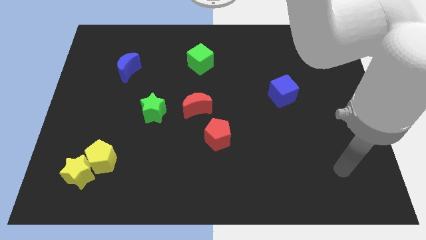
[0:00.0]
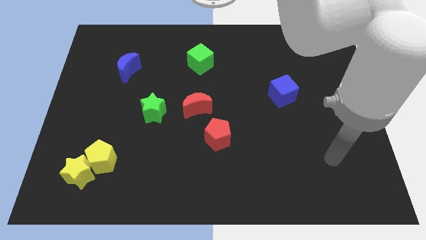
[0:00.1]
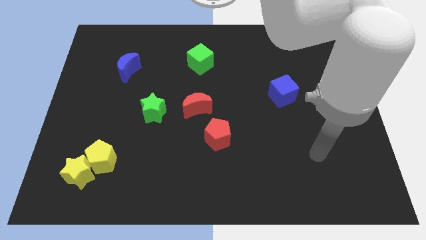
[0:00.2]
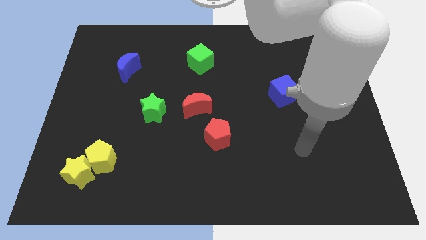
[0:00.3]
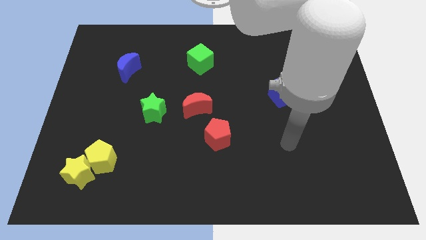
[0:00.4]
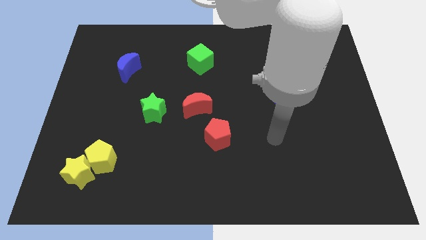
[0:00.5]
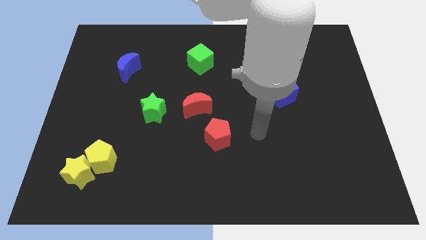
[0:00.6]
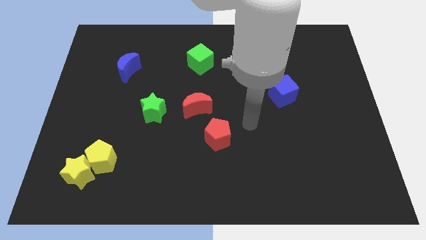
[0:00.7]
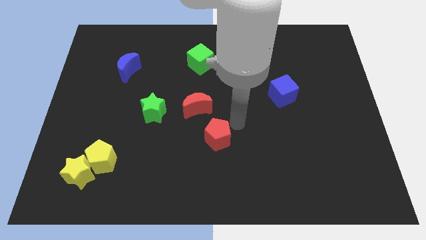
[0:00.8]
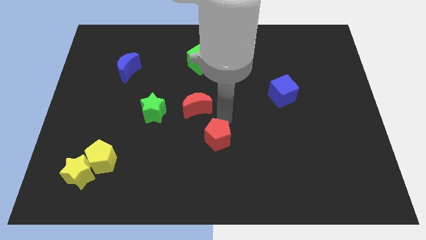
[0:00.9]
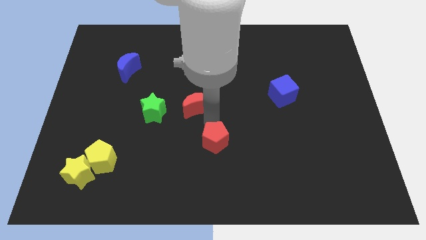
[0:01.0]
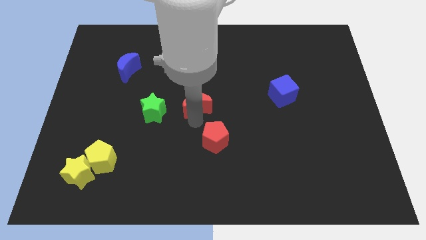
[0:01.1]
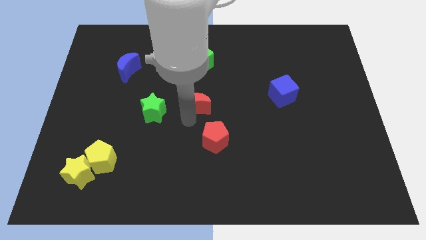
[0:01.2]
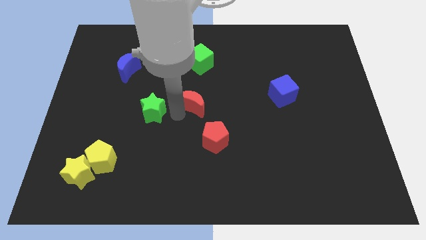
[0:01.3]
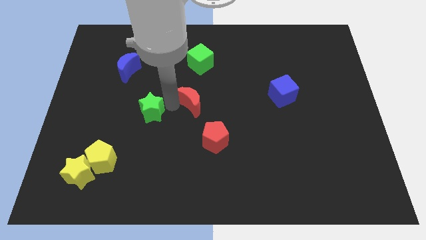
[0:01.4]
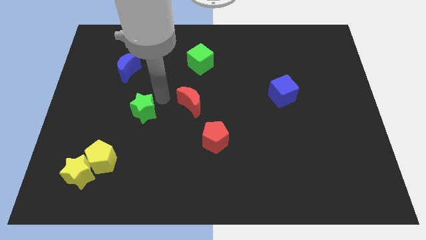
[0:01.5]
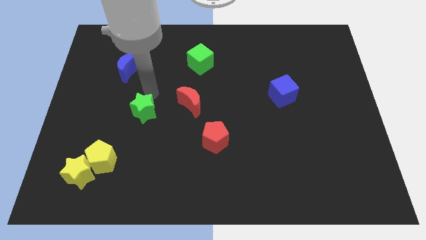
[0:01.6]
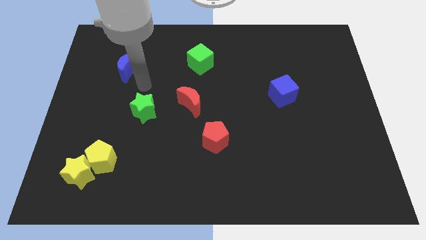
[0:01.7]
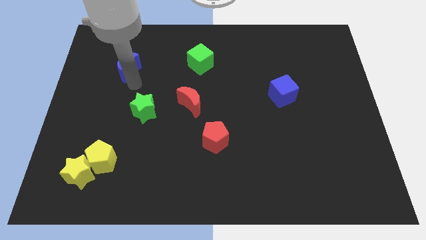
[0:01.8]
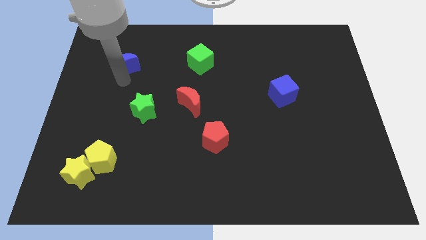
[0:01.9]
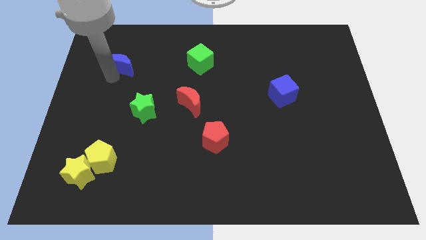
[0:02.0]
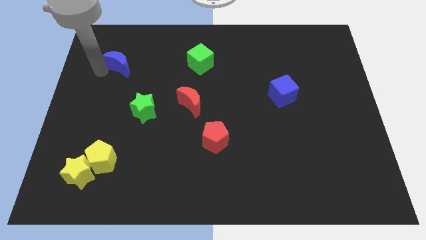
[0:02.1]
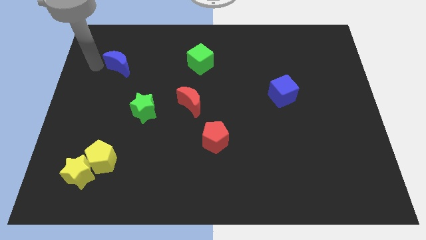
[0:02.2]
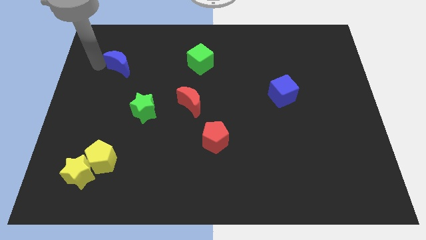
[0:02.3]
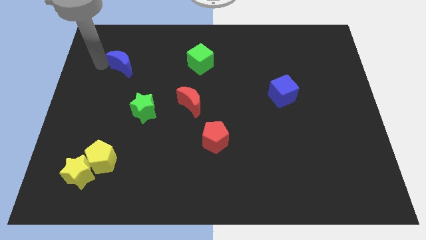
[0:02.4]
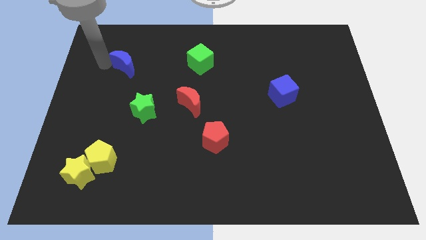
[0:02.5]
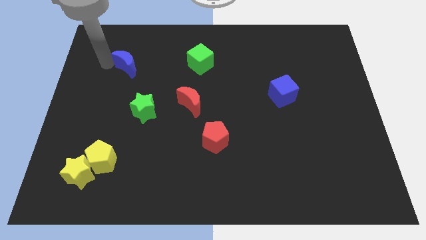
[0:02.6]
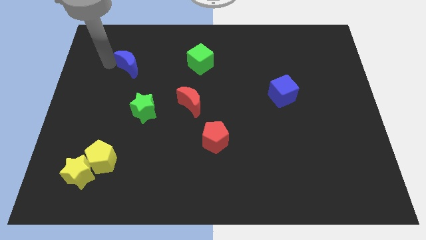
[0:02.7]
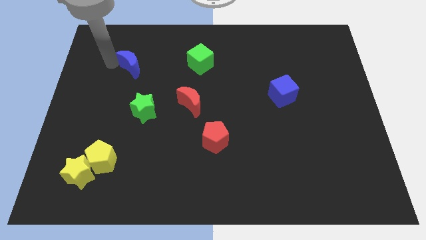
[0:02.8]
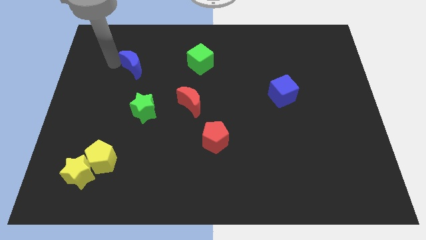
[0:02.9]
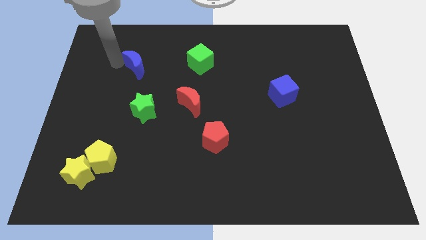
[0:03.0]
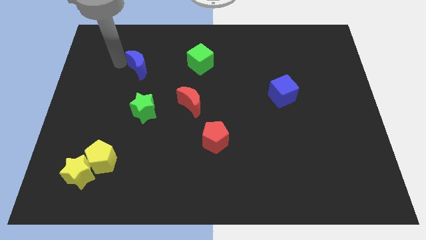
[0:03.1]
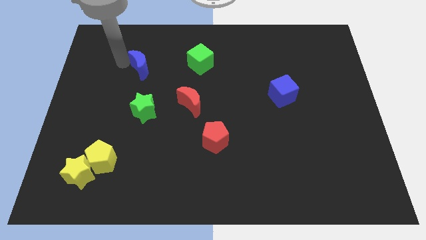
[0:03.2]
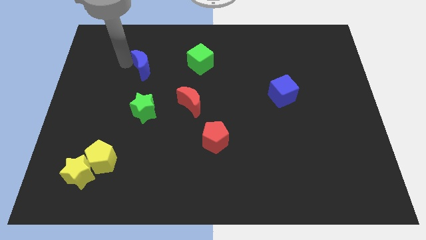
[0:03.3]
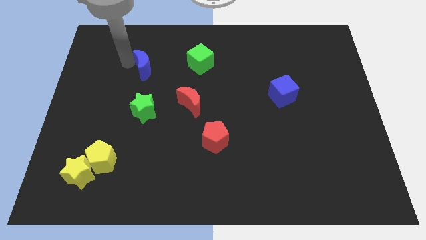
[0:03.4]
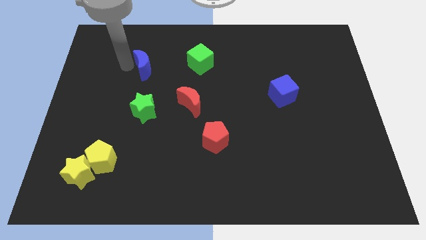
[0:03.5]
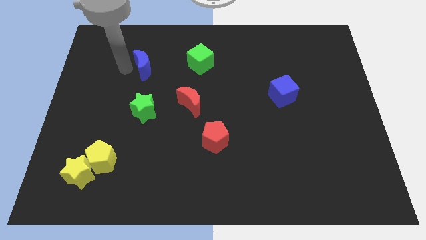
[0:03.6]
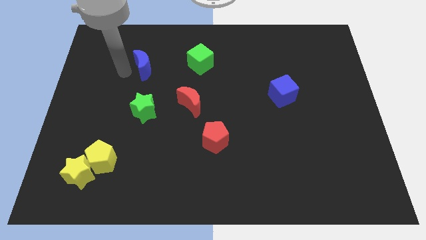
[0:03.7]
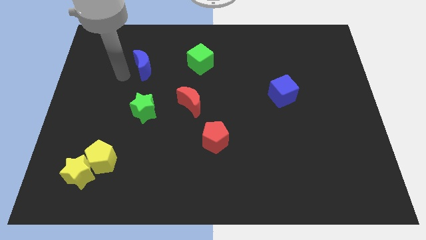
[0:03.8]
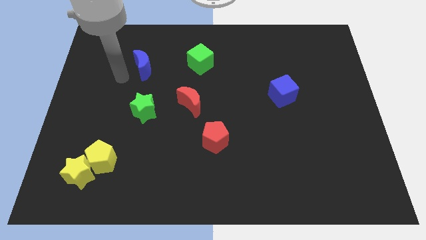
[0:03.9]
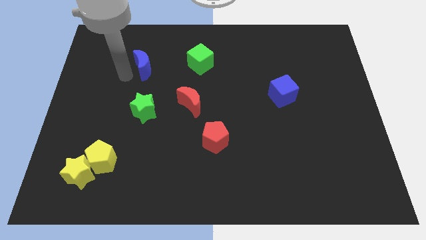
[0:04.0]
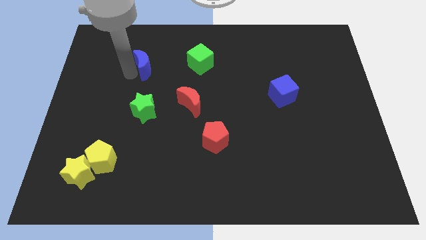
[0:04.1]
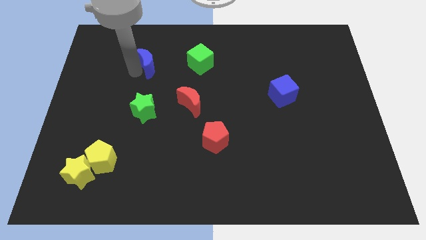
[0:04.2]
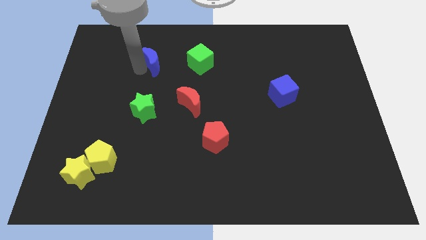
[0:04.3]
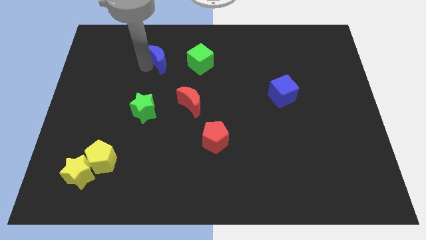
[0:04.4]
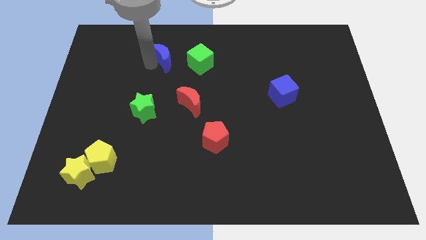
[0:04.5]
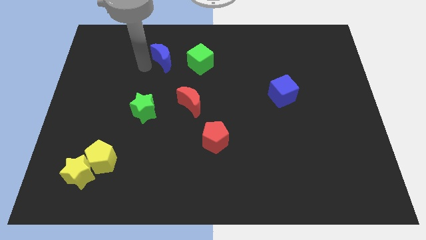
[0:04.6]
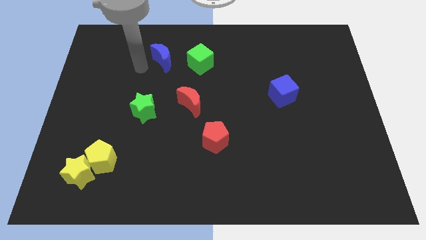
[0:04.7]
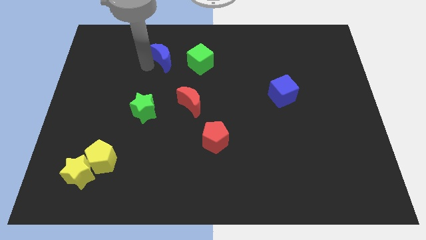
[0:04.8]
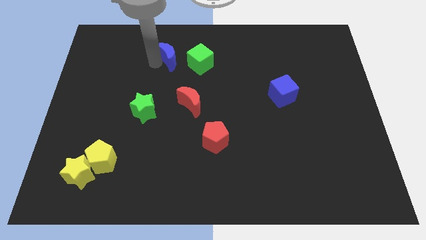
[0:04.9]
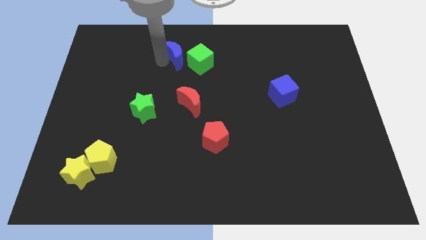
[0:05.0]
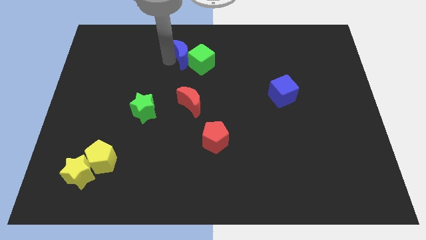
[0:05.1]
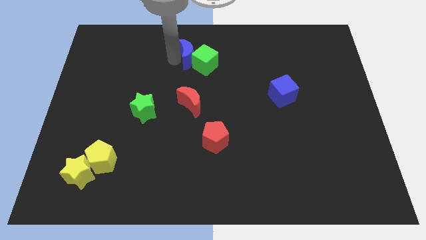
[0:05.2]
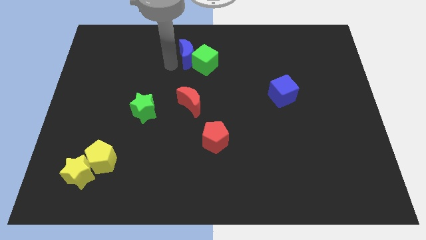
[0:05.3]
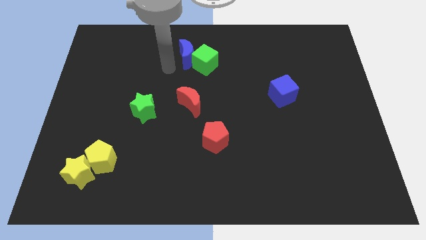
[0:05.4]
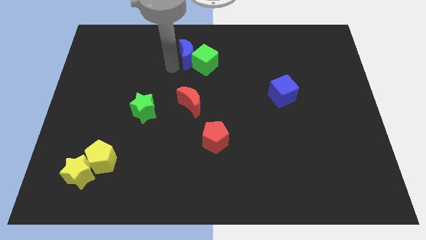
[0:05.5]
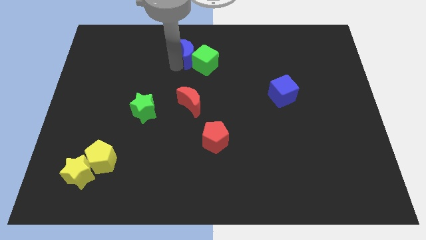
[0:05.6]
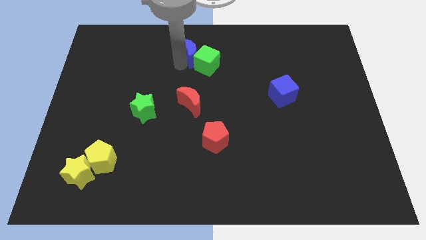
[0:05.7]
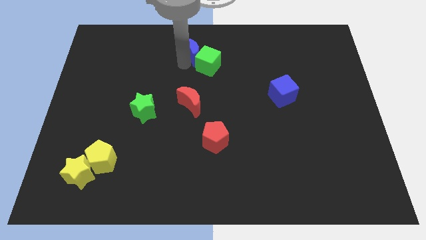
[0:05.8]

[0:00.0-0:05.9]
put the blue moon to the top side

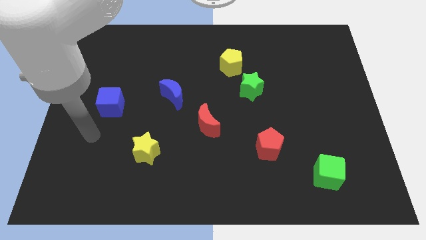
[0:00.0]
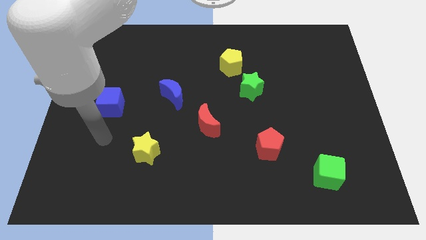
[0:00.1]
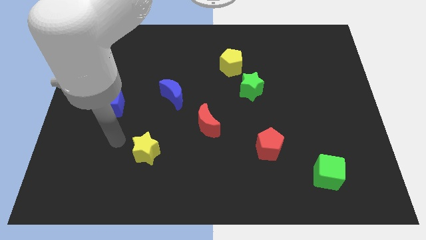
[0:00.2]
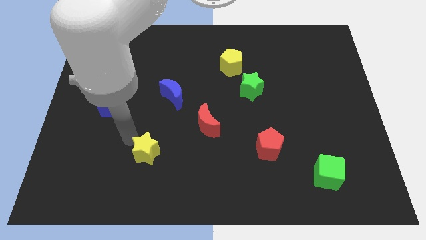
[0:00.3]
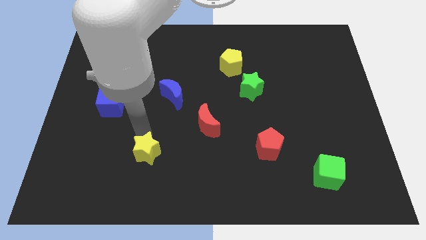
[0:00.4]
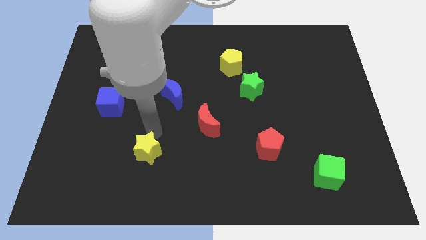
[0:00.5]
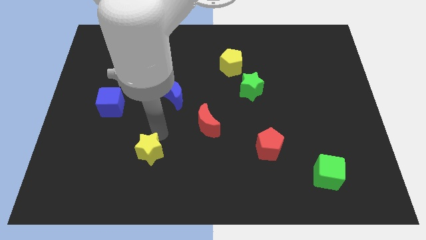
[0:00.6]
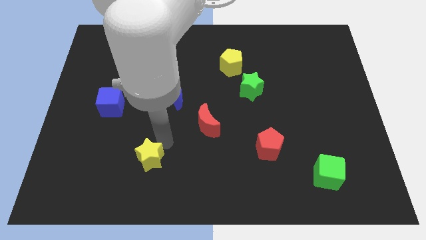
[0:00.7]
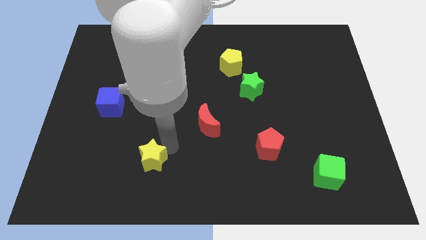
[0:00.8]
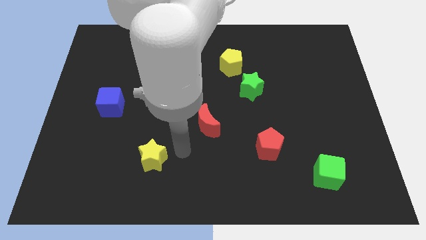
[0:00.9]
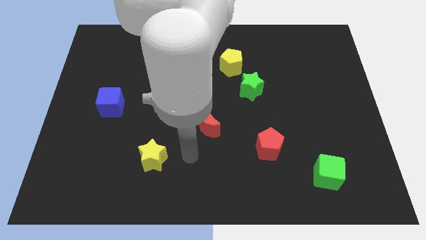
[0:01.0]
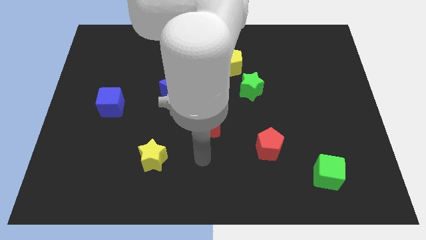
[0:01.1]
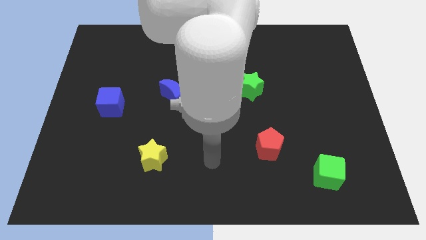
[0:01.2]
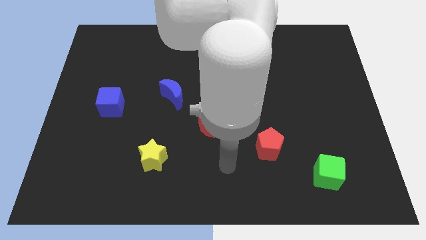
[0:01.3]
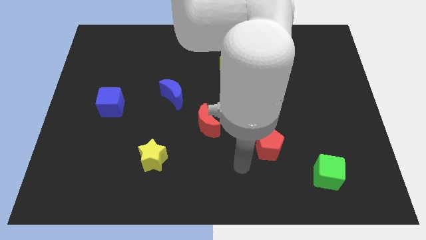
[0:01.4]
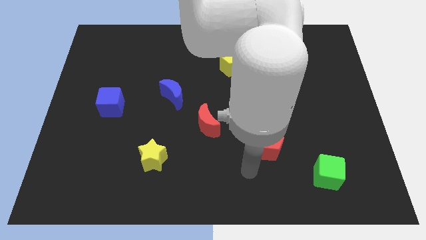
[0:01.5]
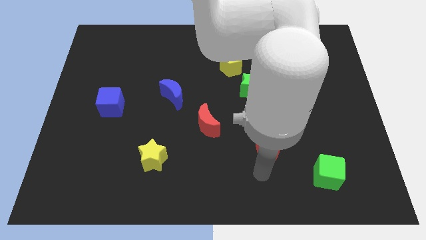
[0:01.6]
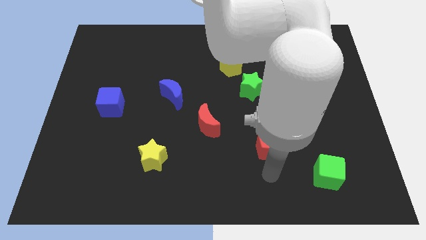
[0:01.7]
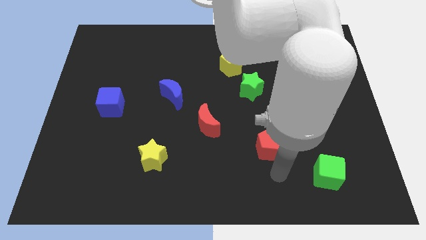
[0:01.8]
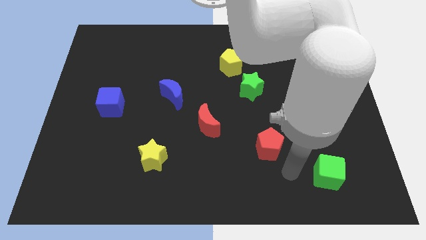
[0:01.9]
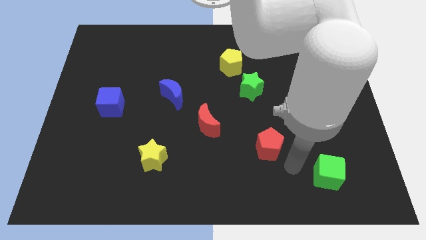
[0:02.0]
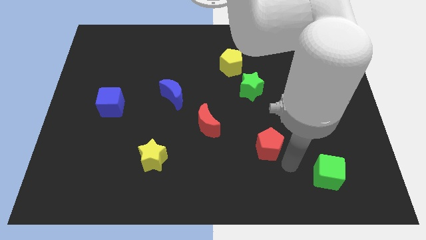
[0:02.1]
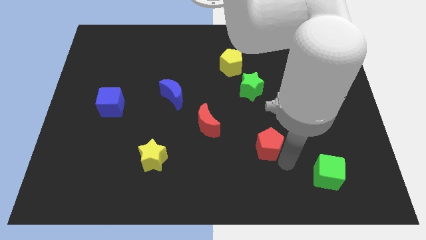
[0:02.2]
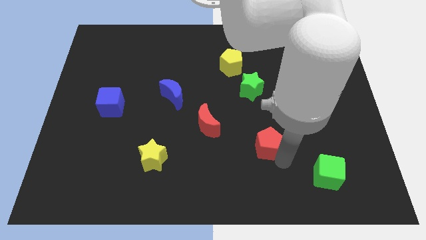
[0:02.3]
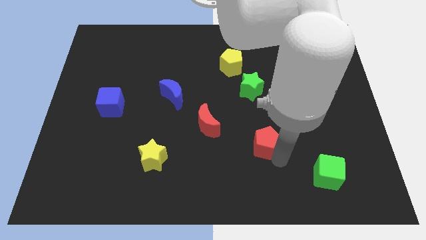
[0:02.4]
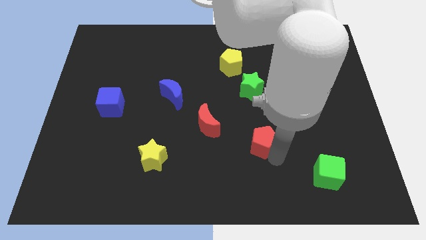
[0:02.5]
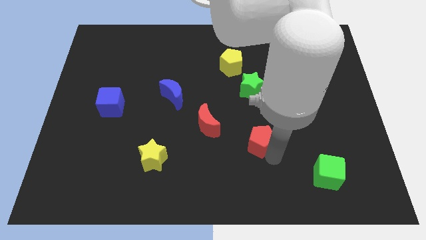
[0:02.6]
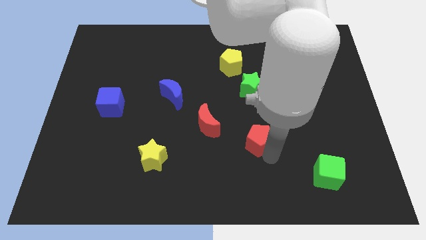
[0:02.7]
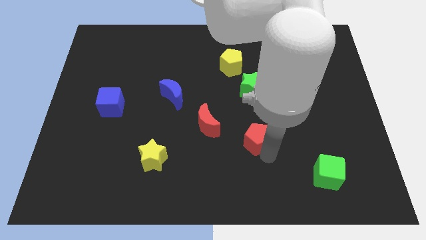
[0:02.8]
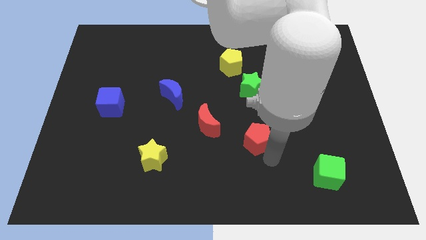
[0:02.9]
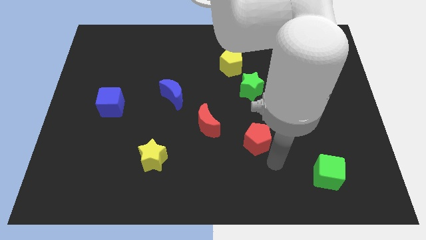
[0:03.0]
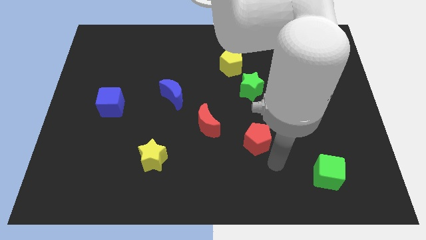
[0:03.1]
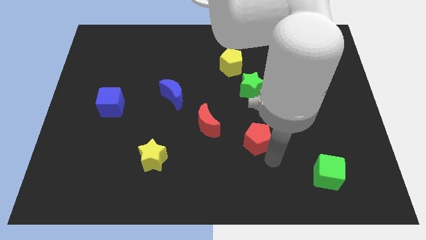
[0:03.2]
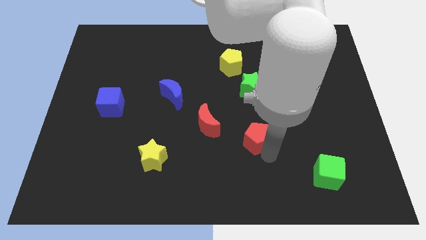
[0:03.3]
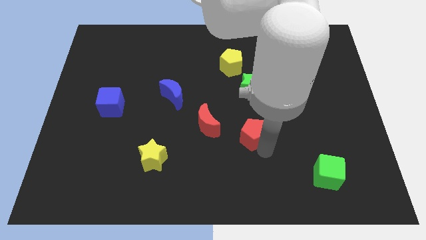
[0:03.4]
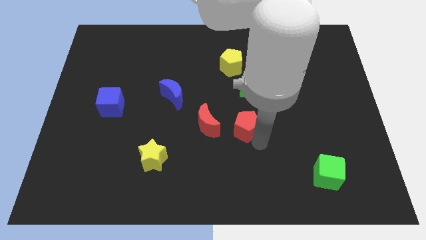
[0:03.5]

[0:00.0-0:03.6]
move the red pentagon to the middle
